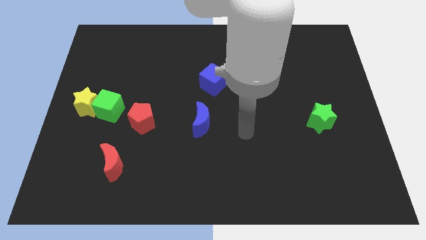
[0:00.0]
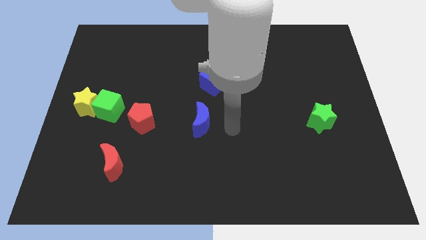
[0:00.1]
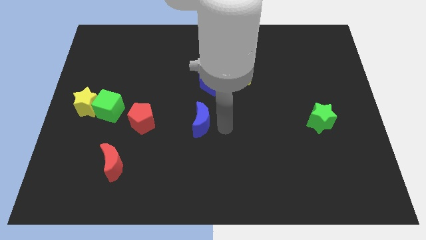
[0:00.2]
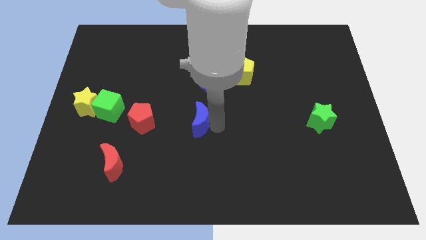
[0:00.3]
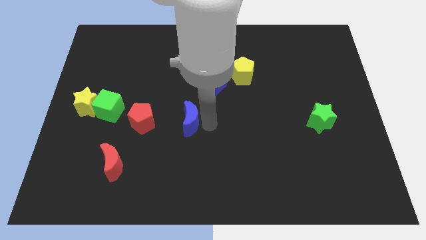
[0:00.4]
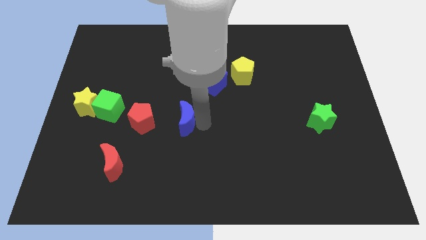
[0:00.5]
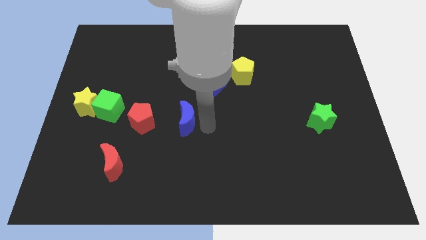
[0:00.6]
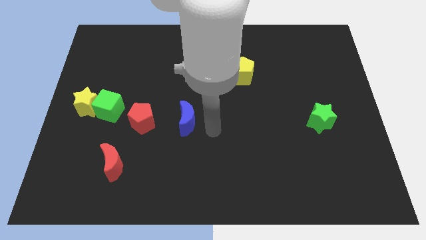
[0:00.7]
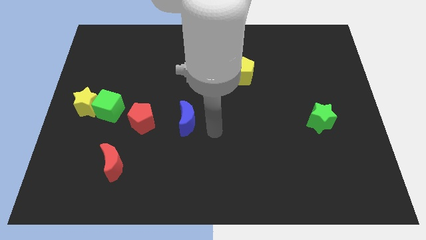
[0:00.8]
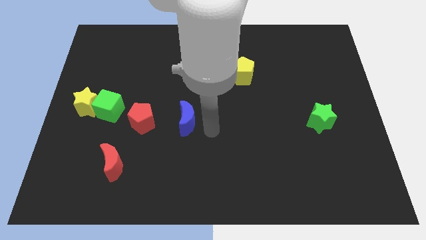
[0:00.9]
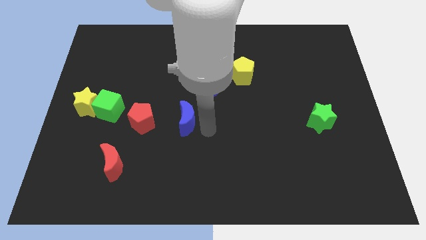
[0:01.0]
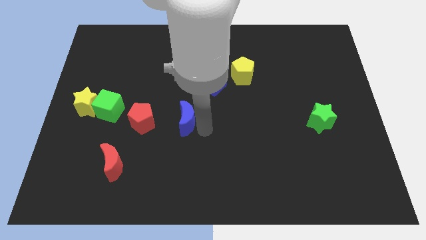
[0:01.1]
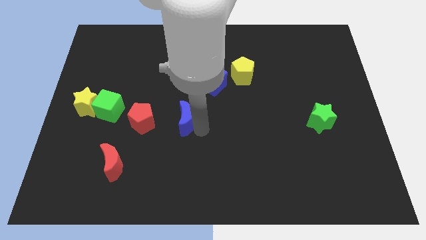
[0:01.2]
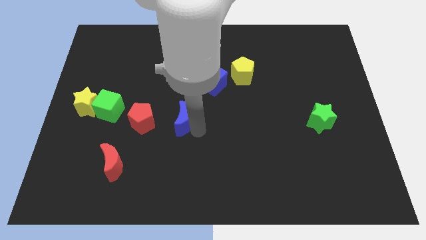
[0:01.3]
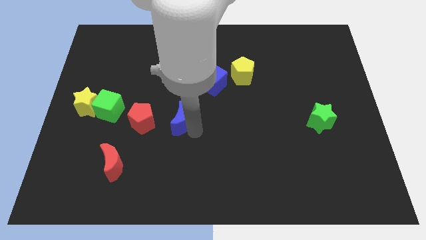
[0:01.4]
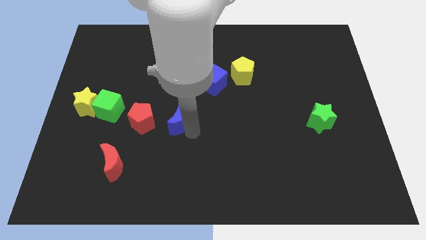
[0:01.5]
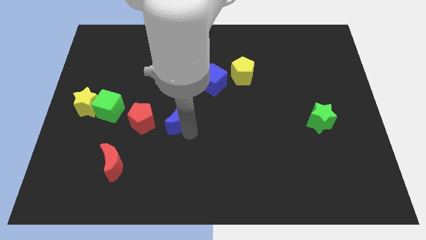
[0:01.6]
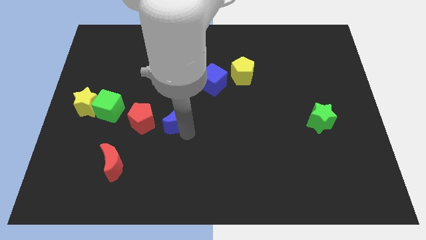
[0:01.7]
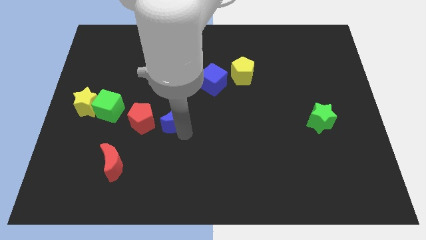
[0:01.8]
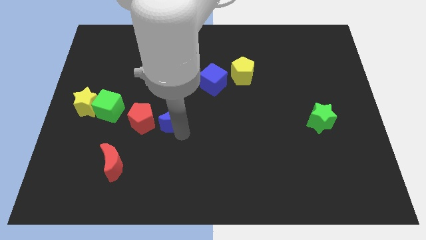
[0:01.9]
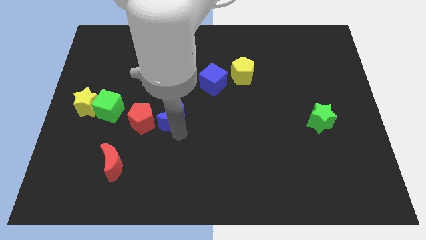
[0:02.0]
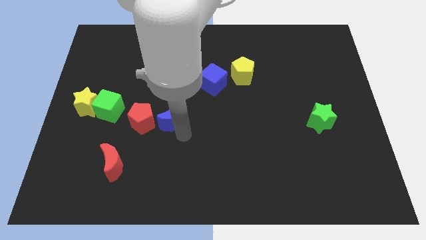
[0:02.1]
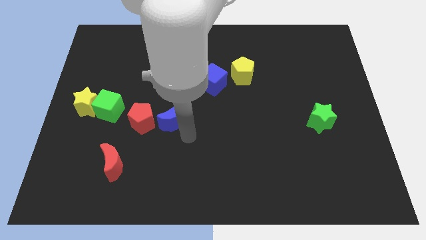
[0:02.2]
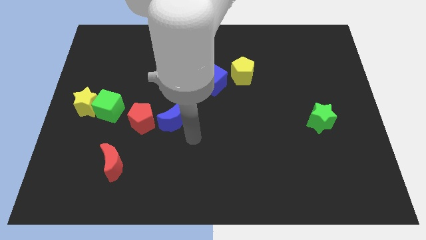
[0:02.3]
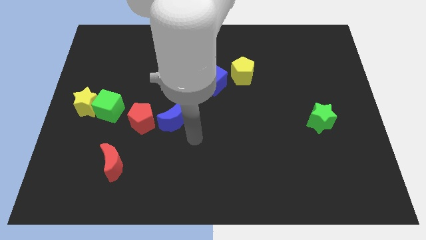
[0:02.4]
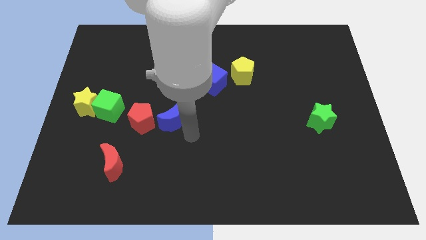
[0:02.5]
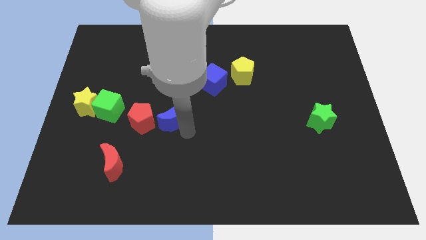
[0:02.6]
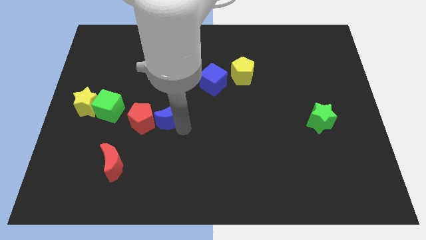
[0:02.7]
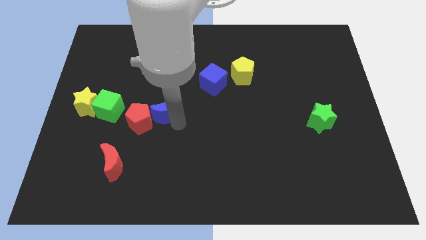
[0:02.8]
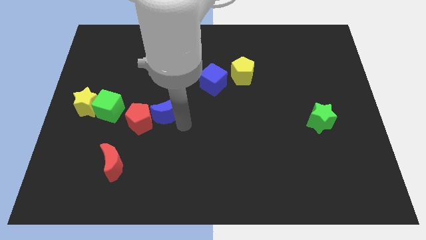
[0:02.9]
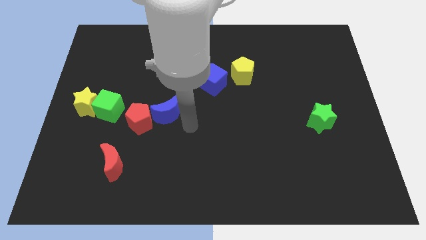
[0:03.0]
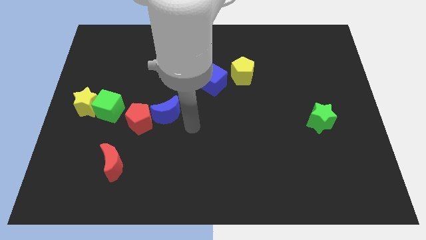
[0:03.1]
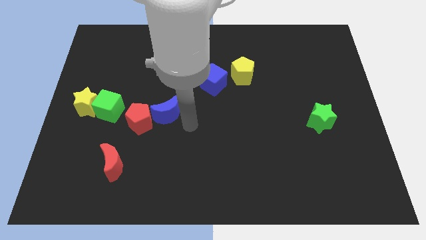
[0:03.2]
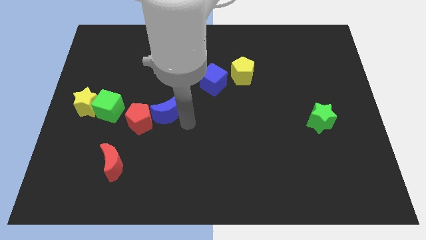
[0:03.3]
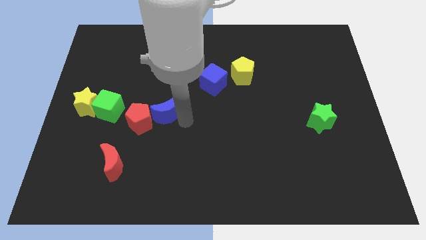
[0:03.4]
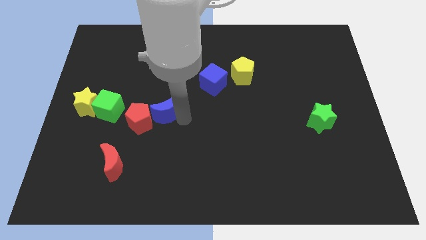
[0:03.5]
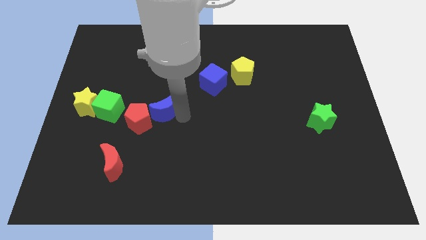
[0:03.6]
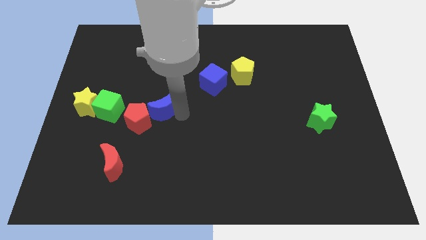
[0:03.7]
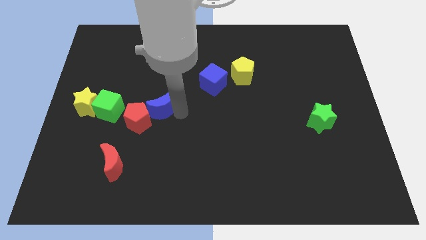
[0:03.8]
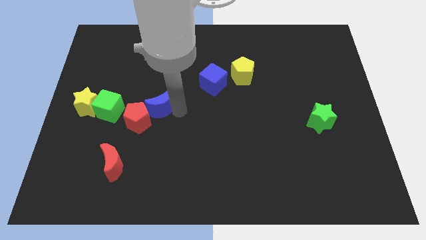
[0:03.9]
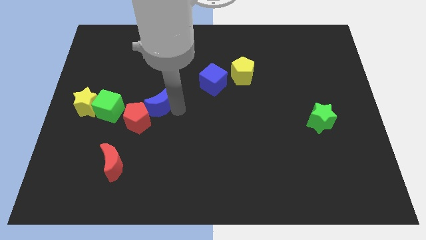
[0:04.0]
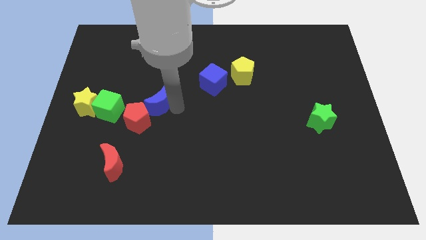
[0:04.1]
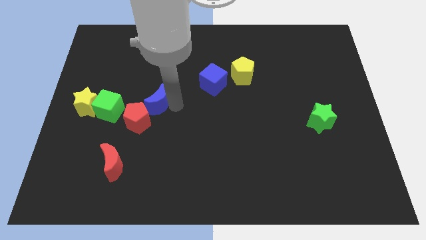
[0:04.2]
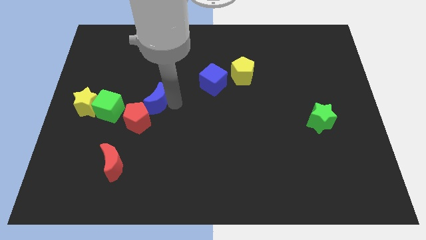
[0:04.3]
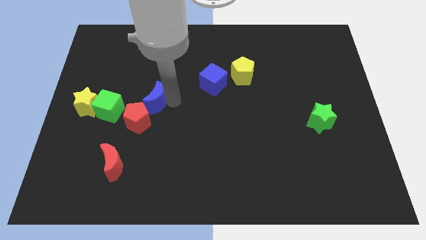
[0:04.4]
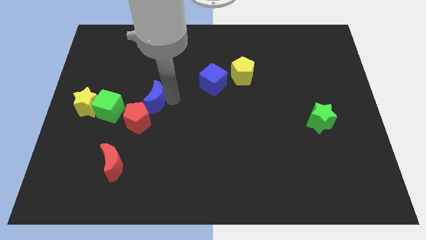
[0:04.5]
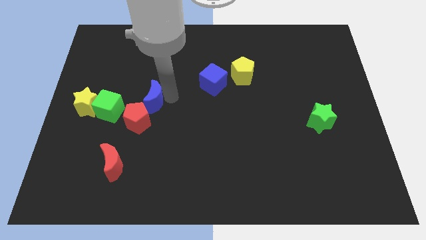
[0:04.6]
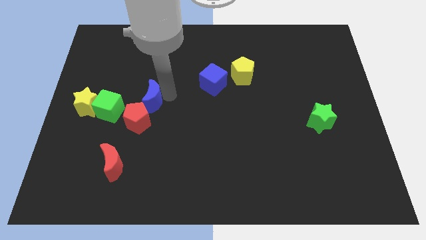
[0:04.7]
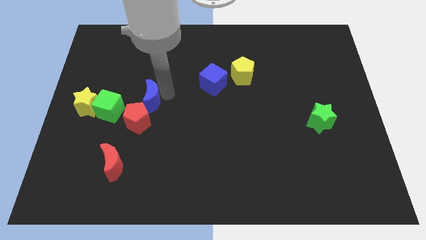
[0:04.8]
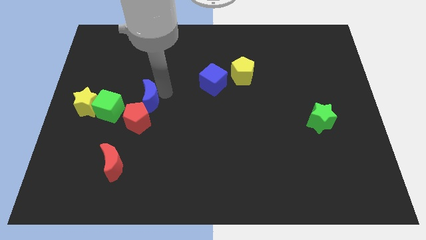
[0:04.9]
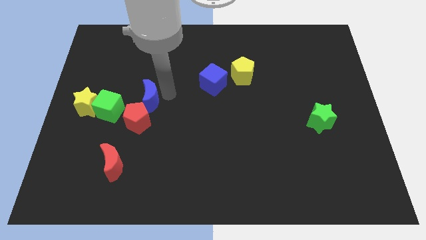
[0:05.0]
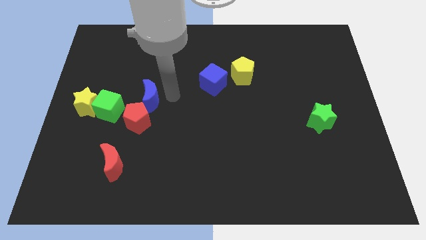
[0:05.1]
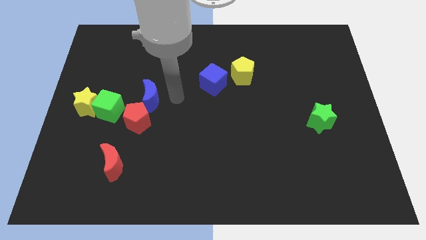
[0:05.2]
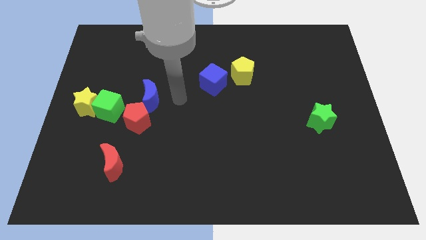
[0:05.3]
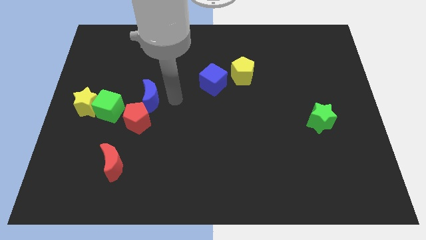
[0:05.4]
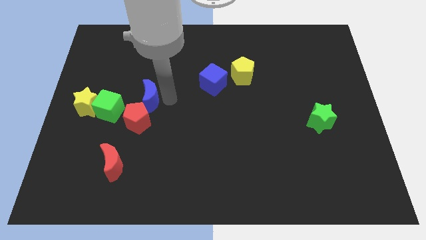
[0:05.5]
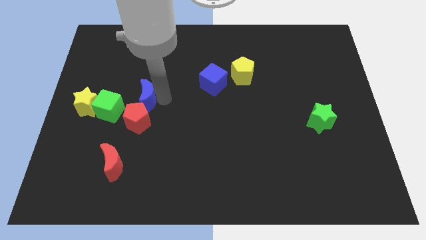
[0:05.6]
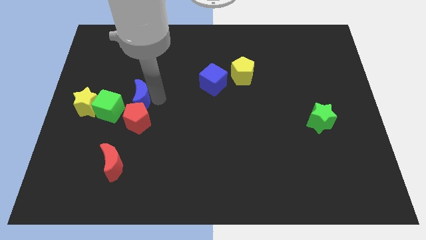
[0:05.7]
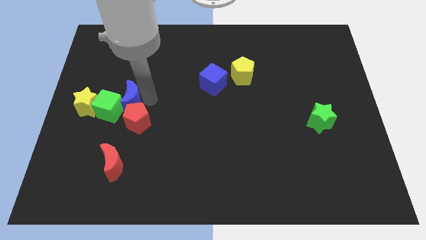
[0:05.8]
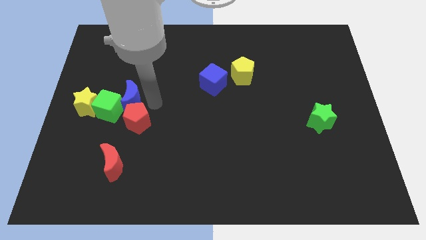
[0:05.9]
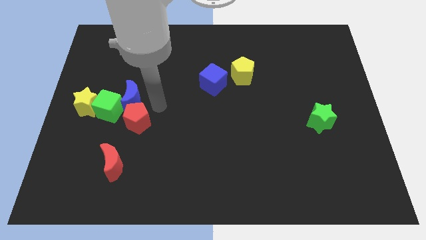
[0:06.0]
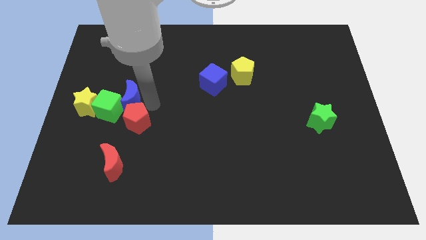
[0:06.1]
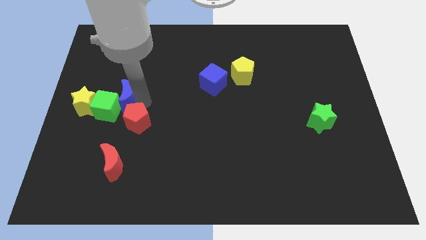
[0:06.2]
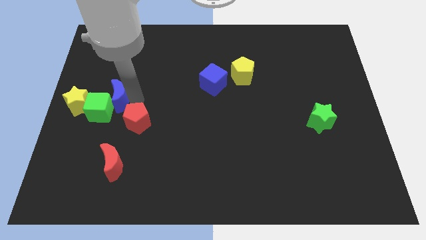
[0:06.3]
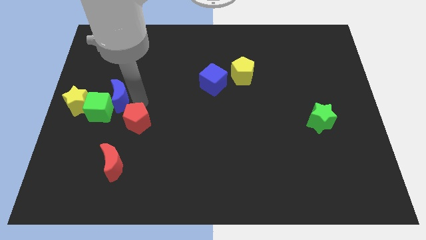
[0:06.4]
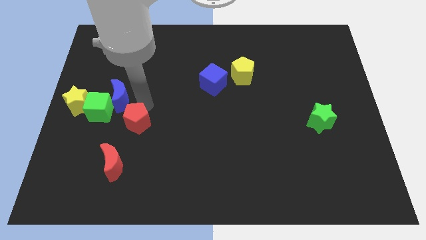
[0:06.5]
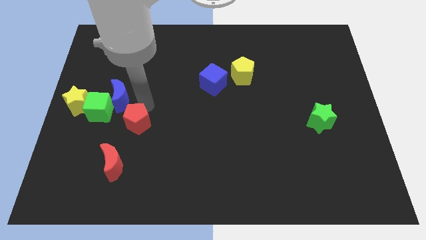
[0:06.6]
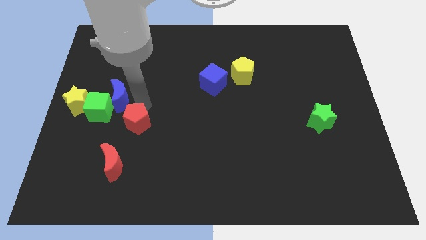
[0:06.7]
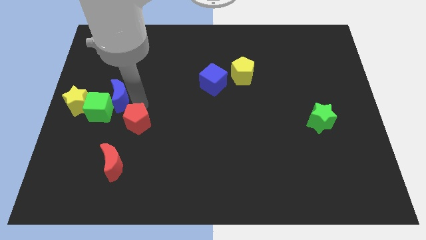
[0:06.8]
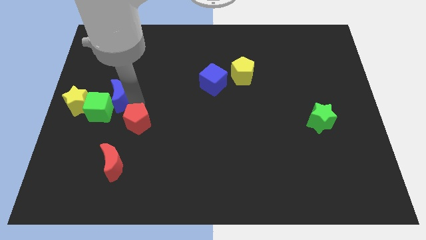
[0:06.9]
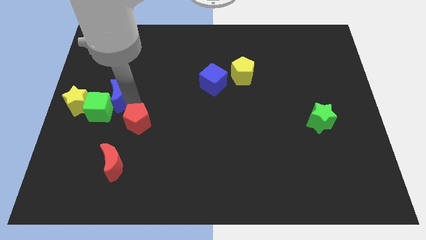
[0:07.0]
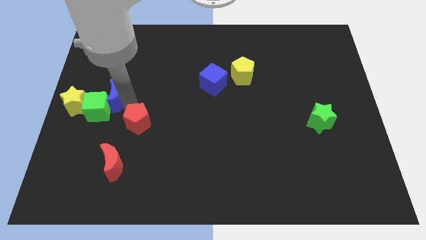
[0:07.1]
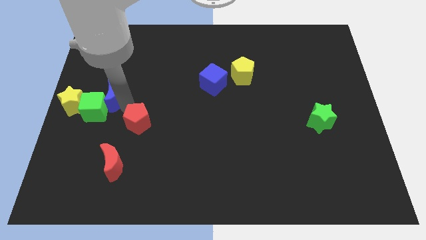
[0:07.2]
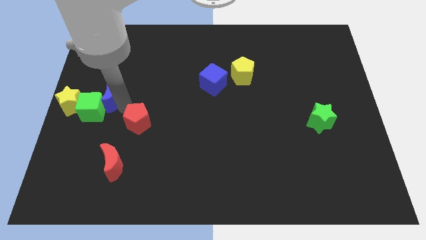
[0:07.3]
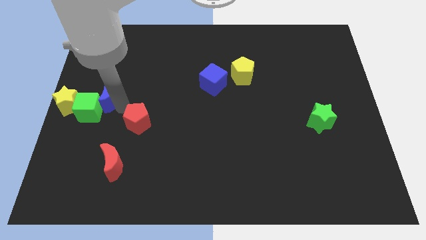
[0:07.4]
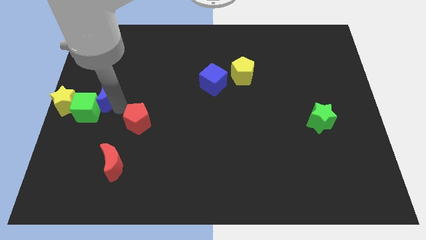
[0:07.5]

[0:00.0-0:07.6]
push the blue moon to the left side of the board
